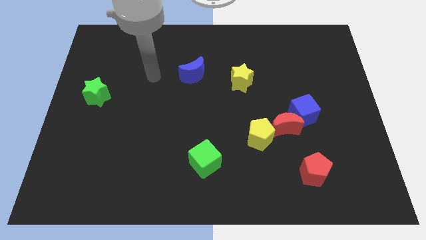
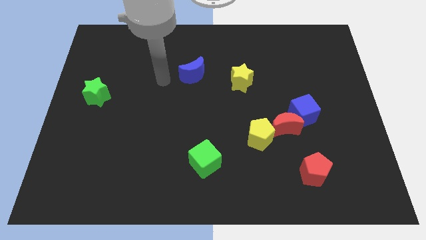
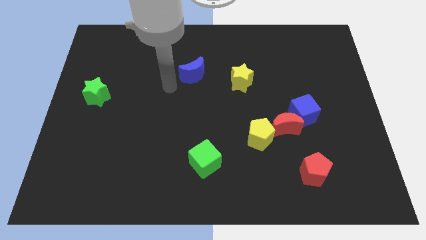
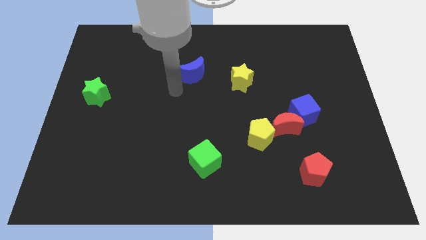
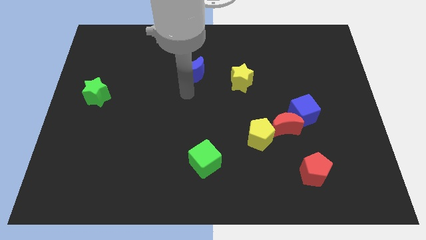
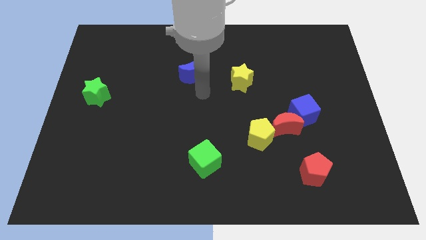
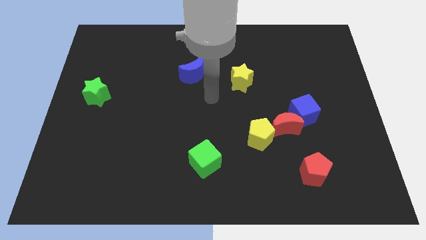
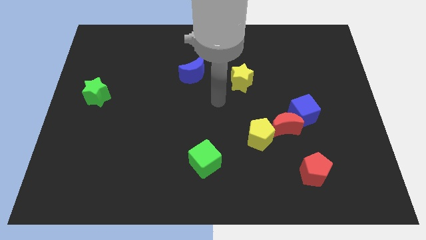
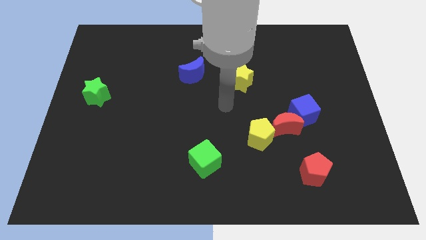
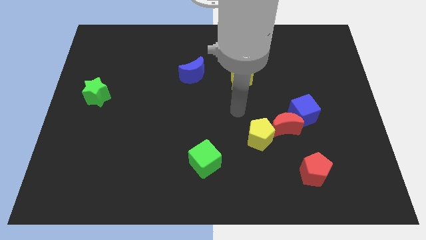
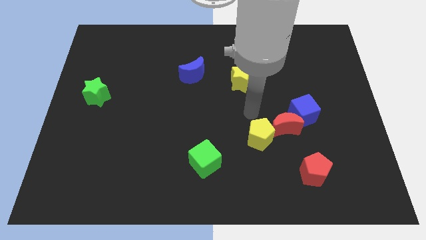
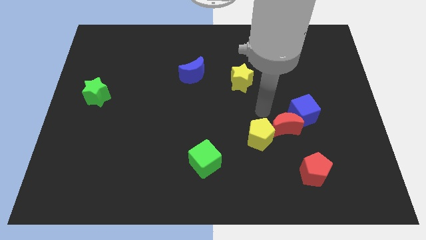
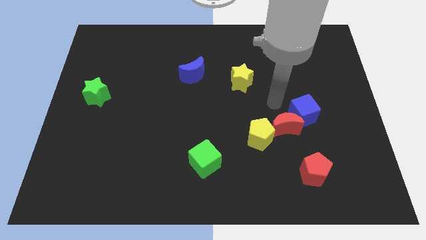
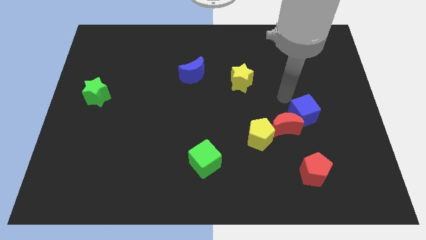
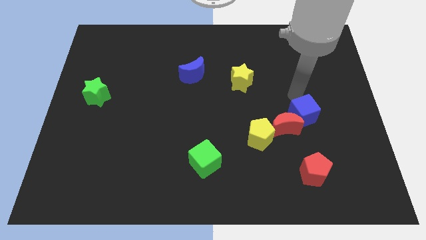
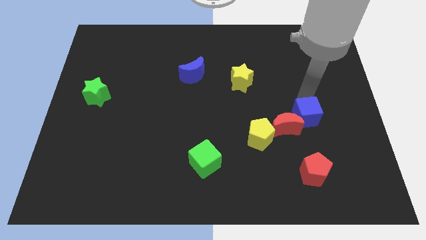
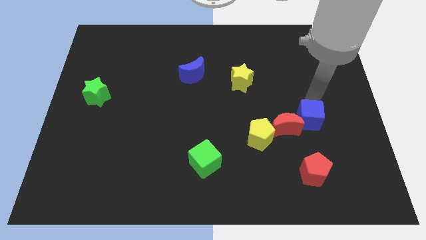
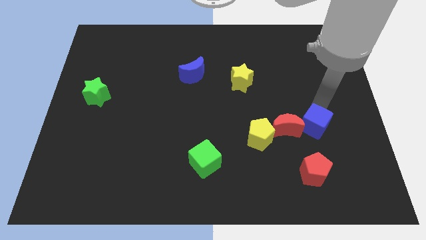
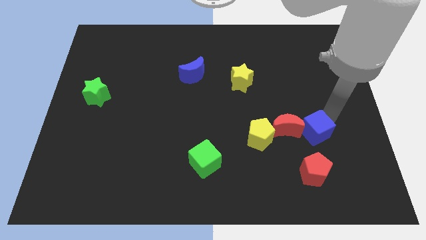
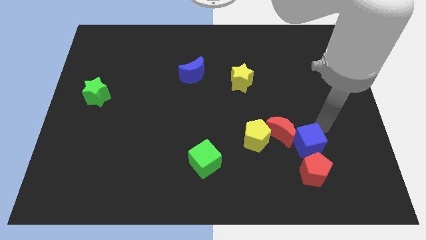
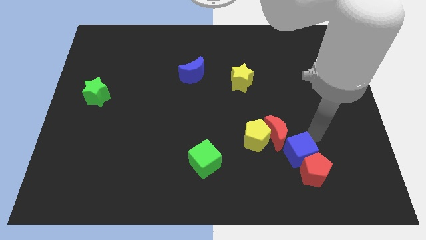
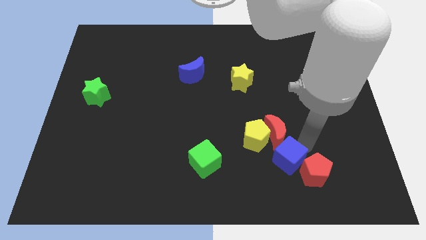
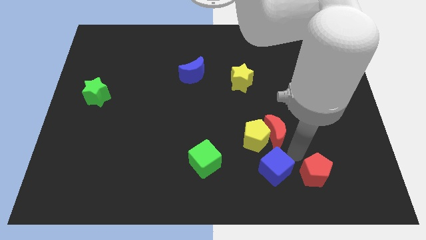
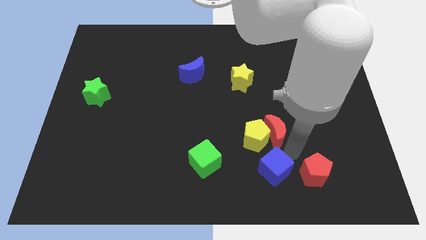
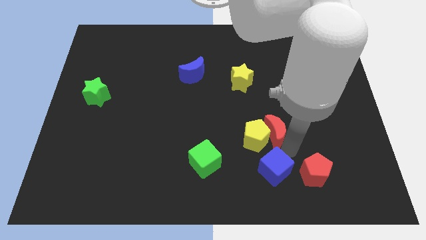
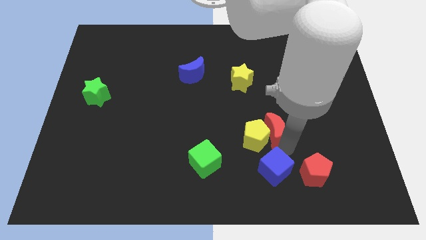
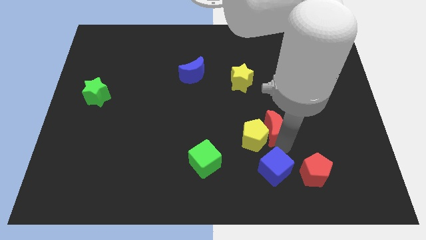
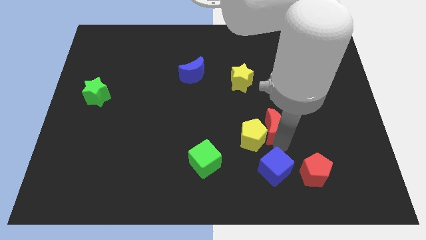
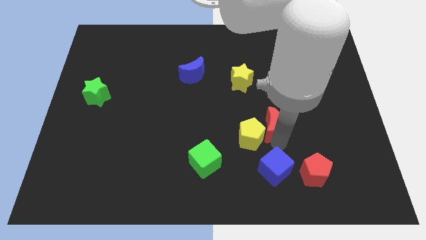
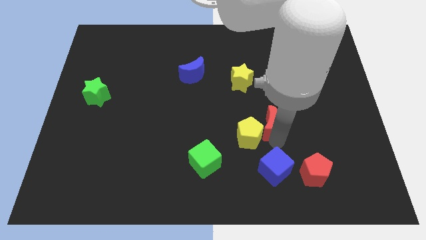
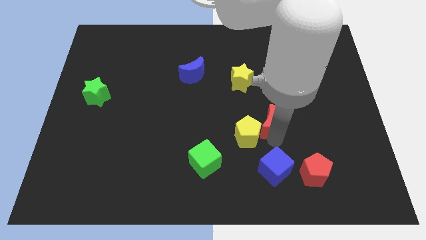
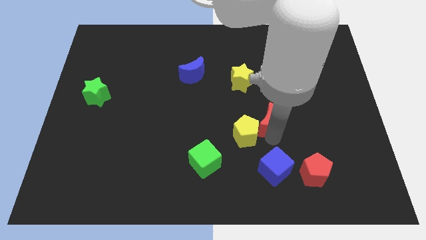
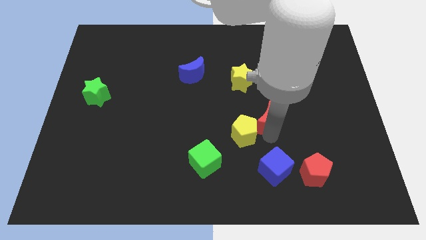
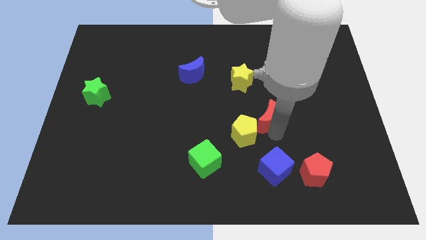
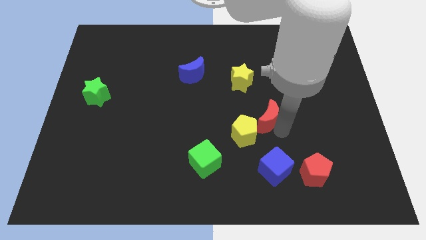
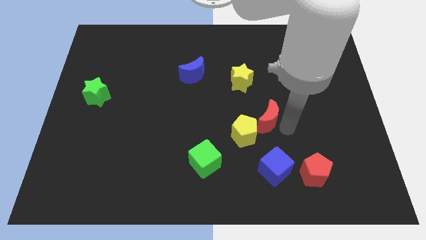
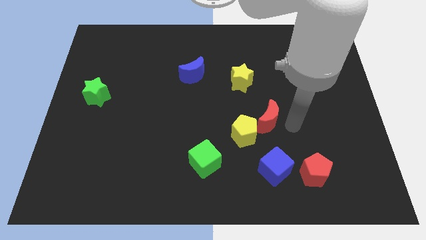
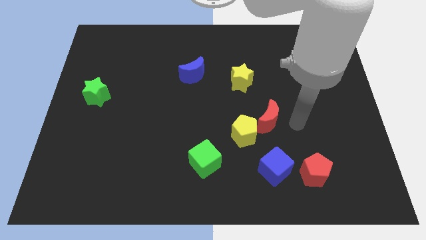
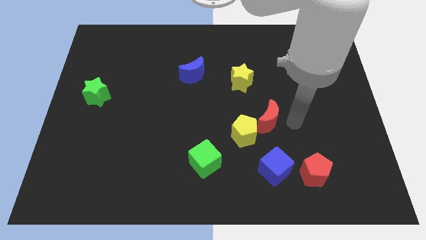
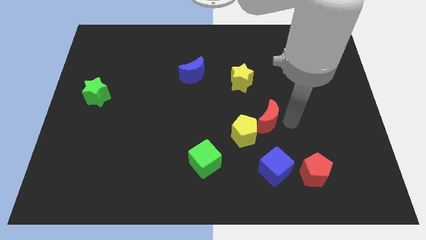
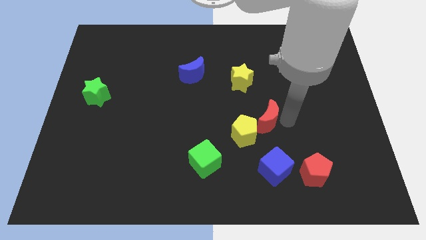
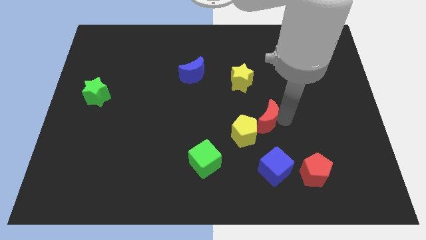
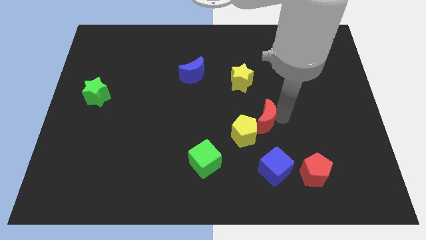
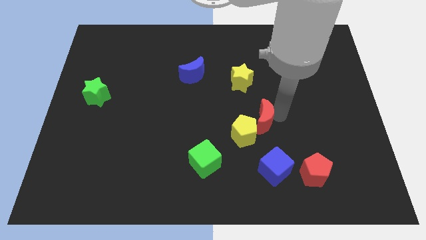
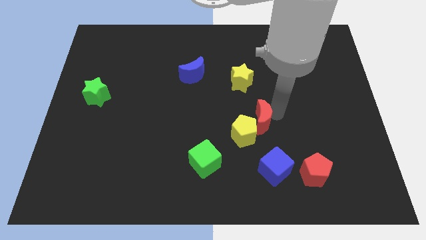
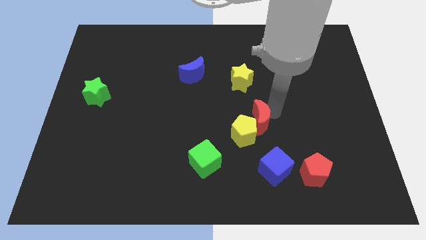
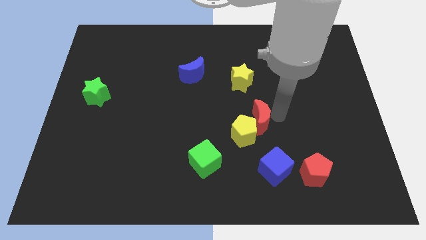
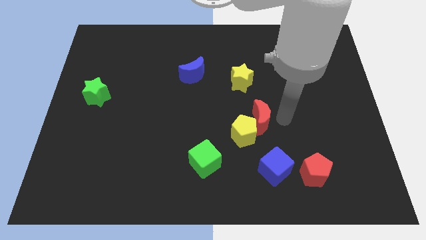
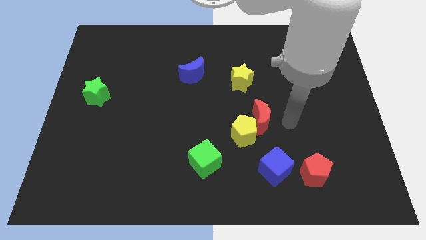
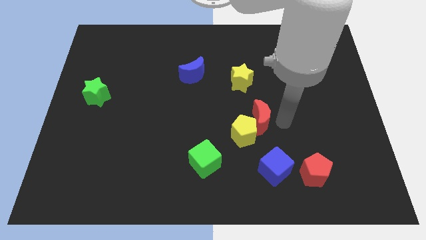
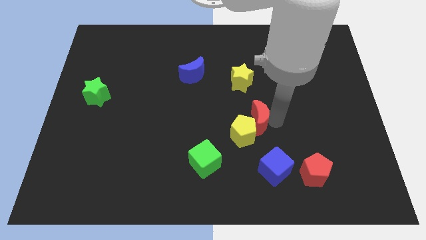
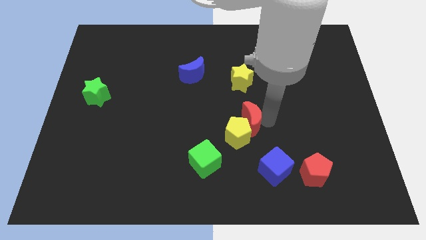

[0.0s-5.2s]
slide the red moon a bit to the left

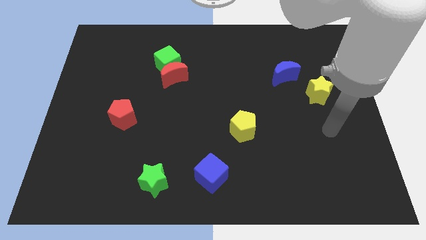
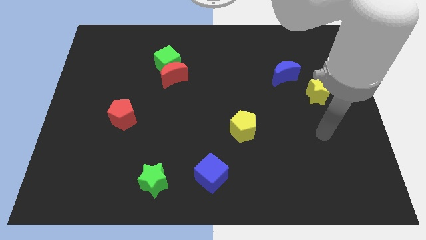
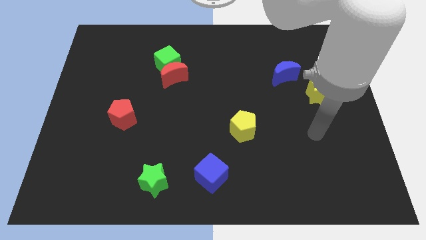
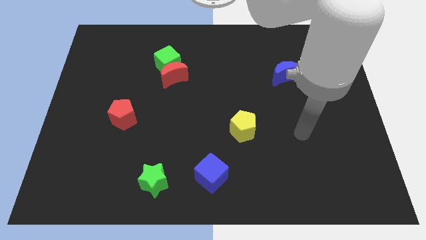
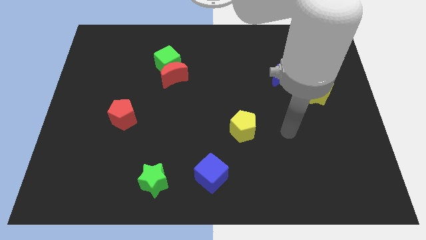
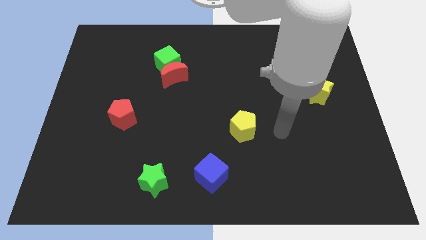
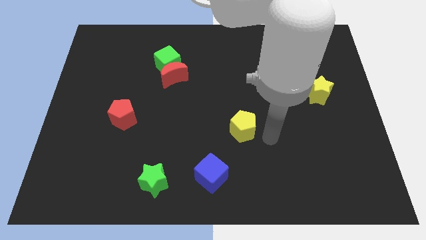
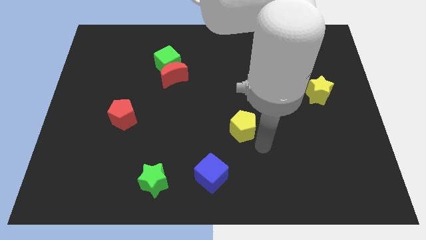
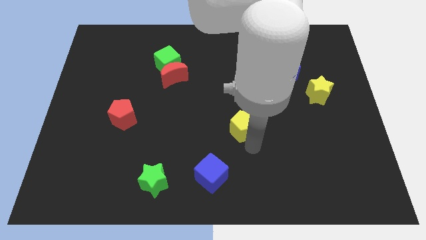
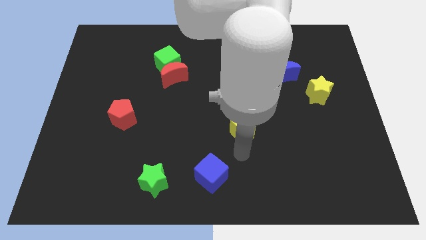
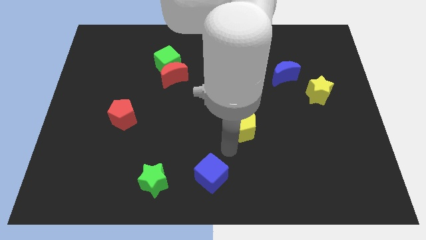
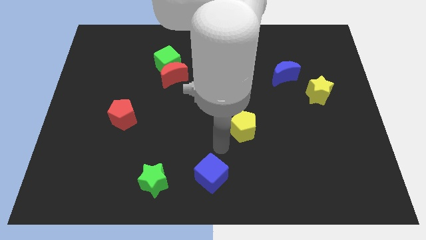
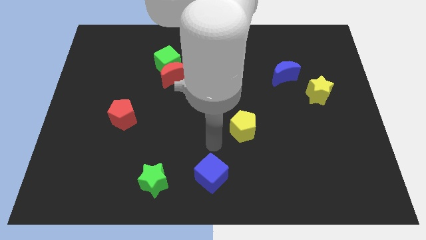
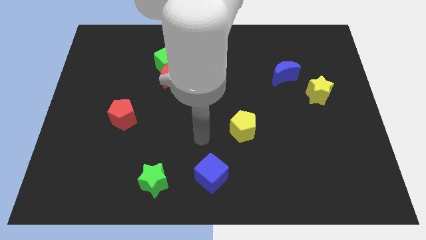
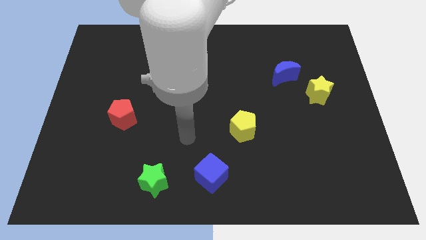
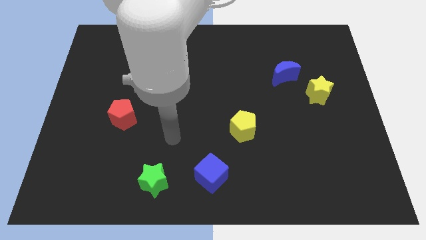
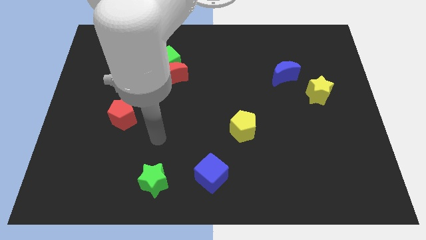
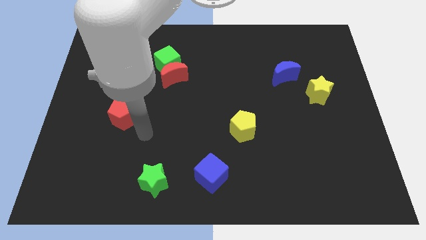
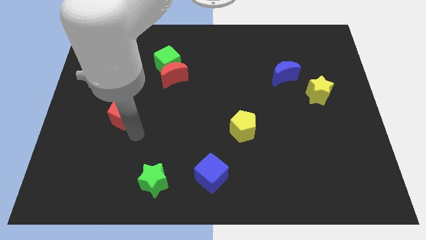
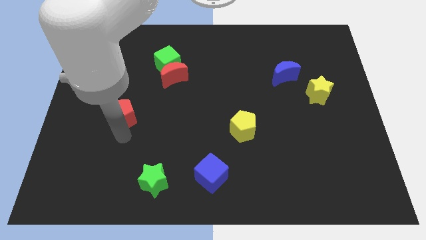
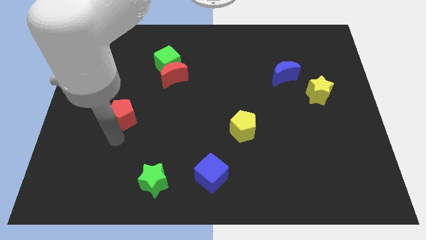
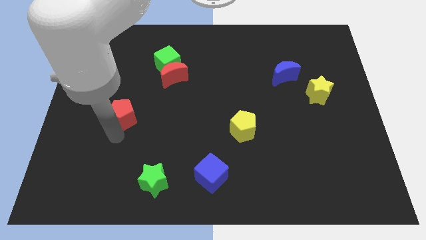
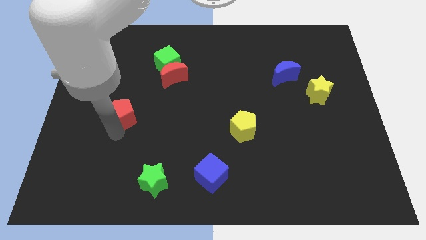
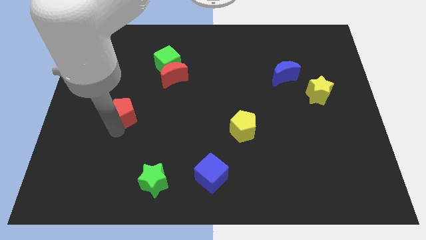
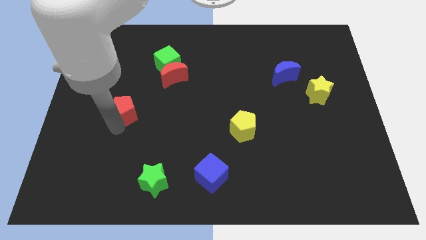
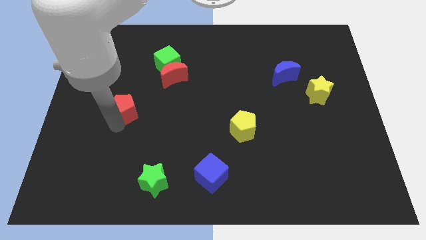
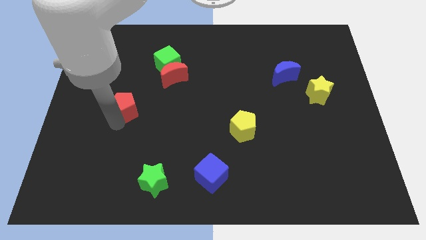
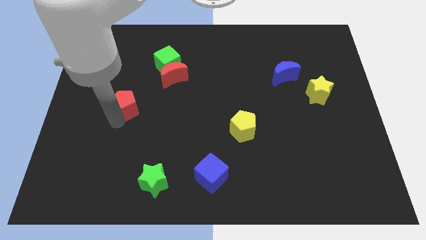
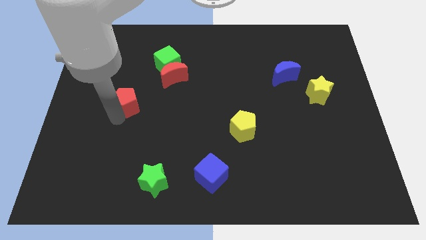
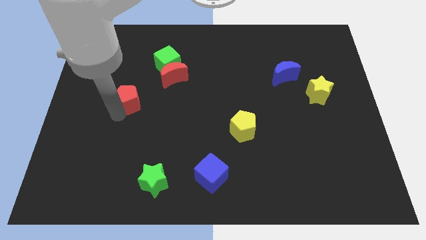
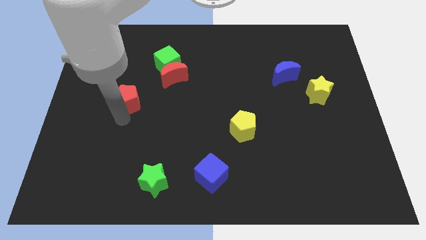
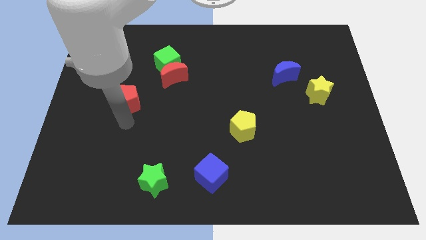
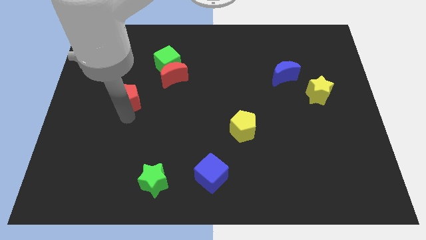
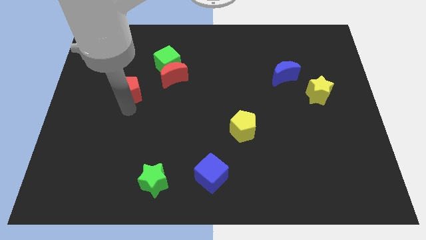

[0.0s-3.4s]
push the red pentagon a bit upwards
